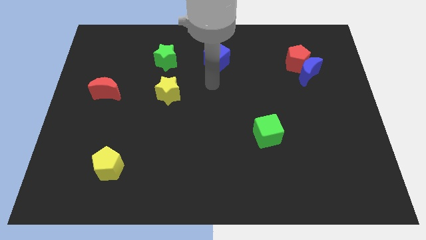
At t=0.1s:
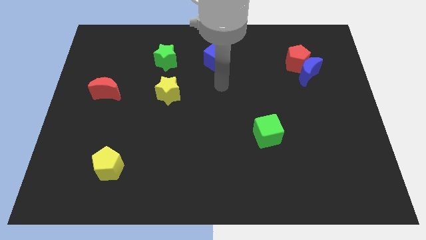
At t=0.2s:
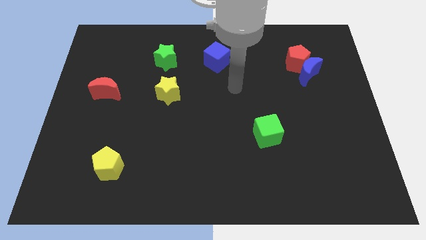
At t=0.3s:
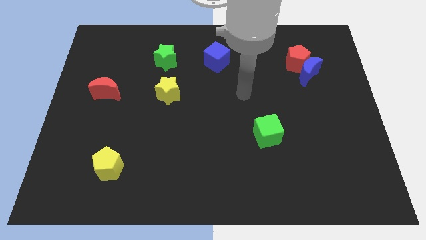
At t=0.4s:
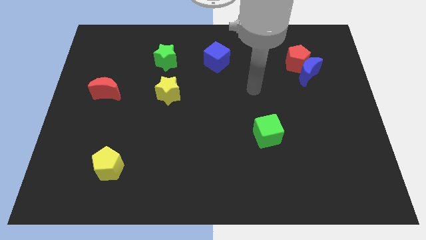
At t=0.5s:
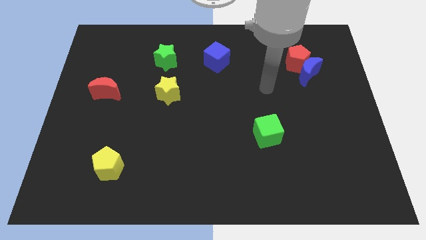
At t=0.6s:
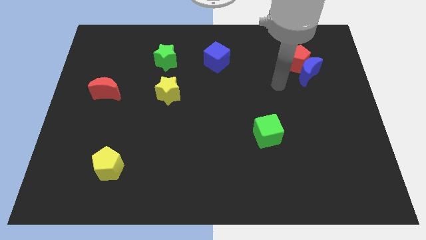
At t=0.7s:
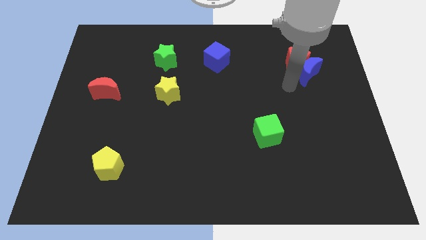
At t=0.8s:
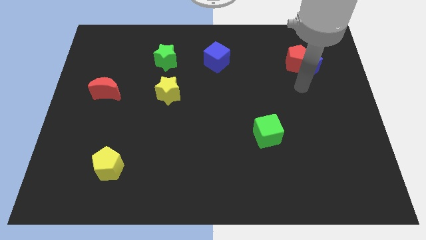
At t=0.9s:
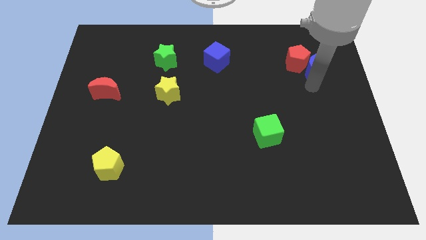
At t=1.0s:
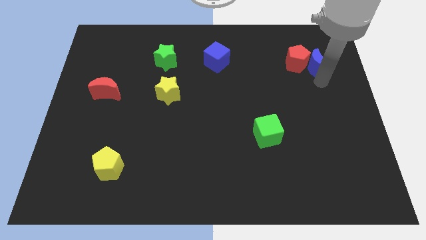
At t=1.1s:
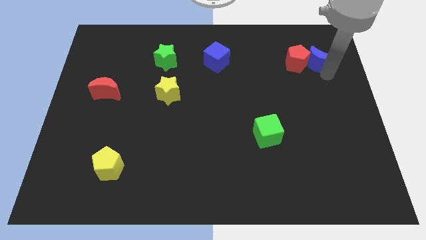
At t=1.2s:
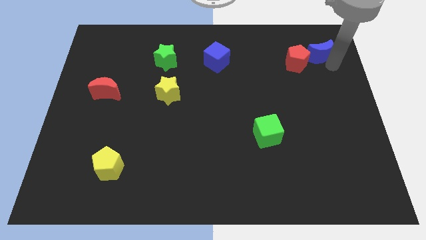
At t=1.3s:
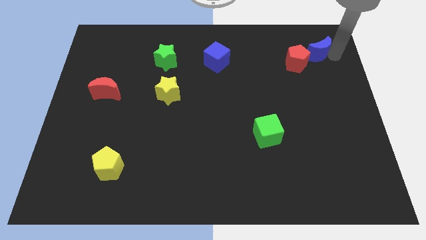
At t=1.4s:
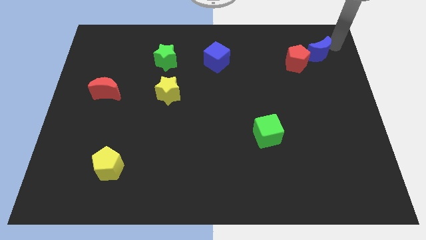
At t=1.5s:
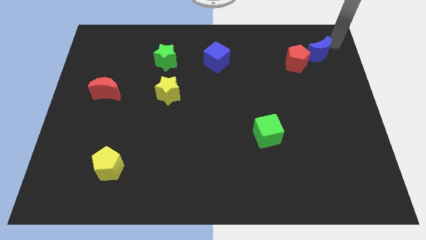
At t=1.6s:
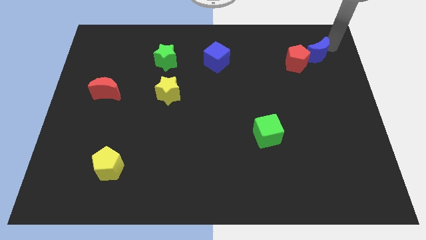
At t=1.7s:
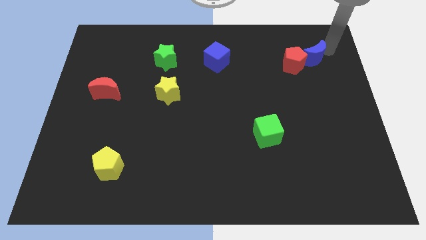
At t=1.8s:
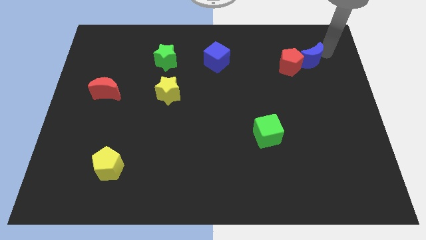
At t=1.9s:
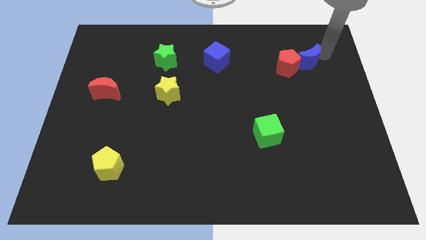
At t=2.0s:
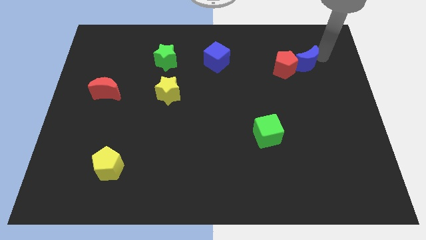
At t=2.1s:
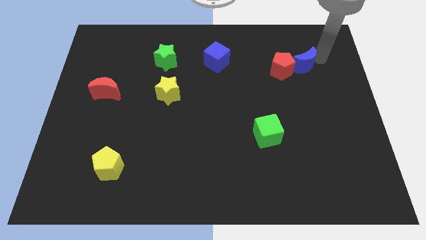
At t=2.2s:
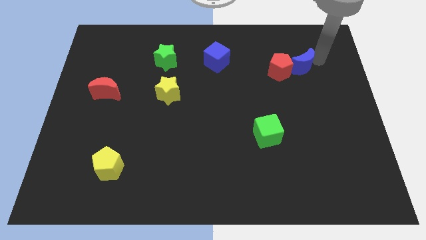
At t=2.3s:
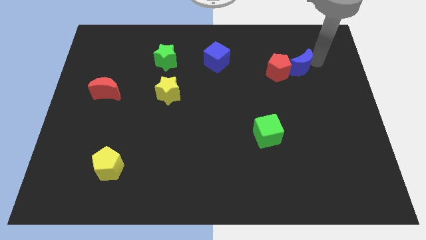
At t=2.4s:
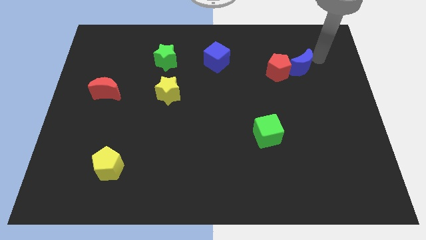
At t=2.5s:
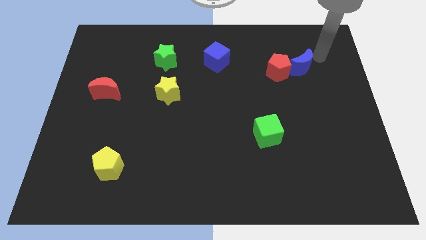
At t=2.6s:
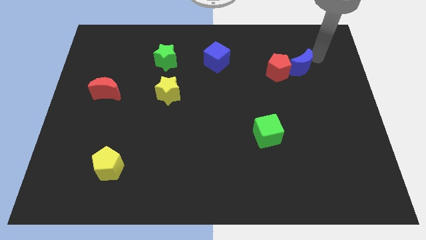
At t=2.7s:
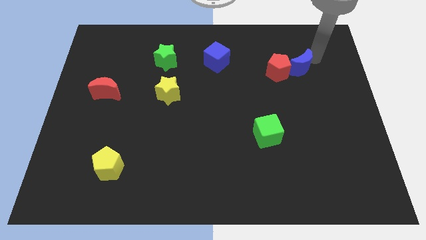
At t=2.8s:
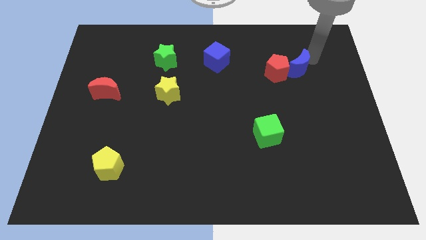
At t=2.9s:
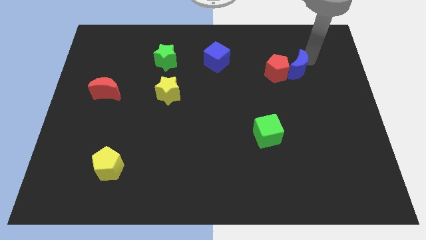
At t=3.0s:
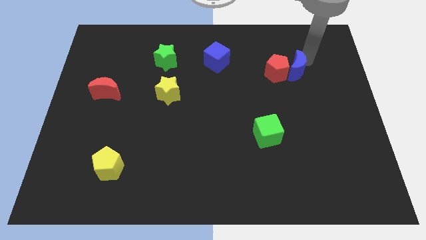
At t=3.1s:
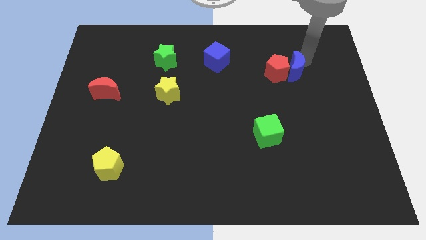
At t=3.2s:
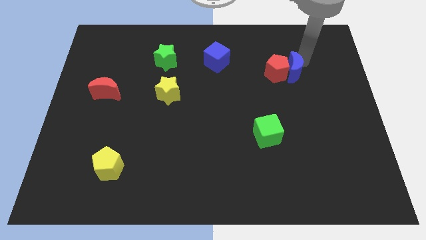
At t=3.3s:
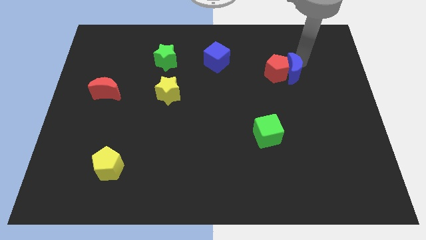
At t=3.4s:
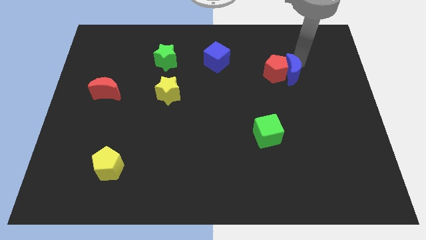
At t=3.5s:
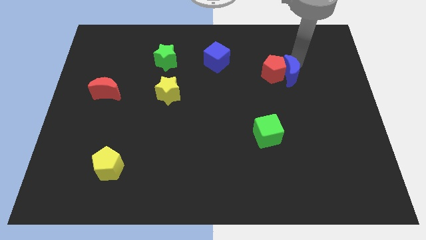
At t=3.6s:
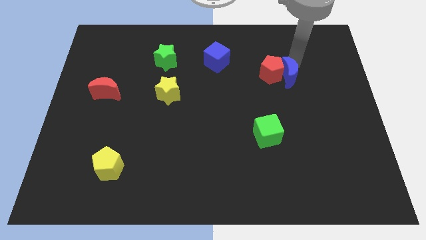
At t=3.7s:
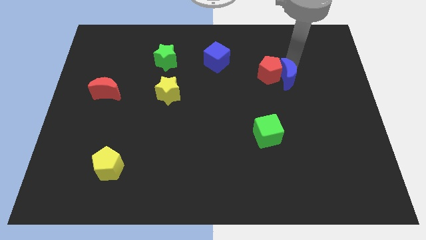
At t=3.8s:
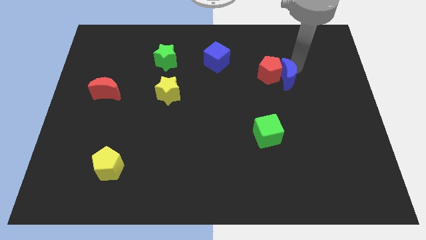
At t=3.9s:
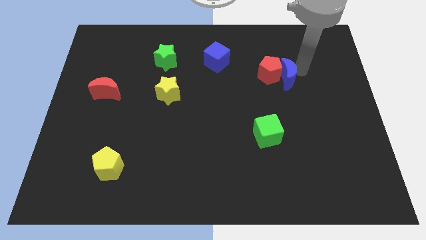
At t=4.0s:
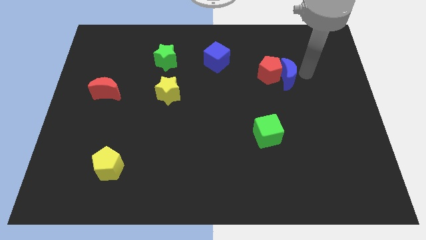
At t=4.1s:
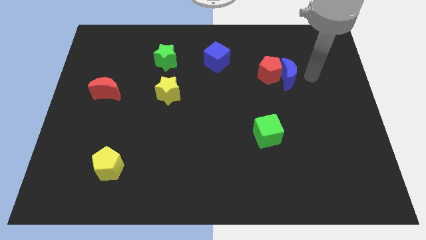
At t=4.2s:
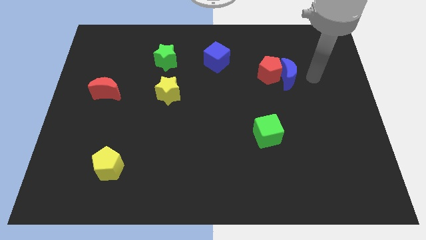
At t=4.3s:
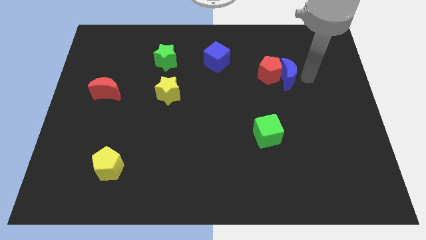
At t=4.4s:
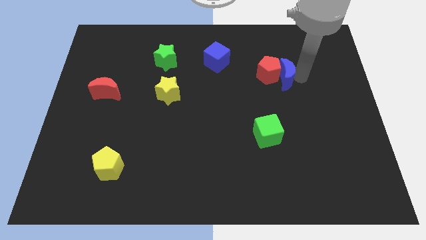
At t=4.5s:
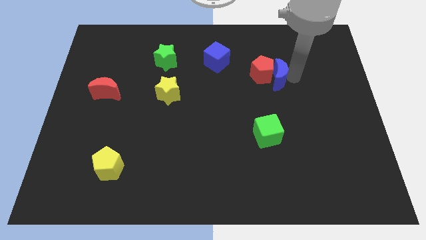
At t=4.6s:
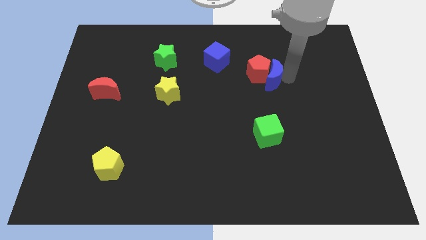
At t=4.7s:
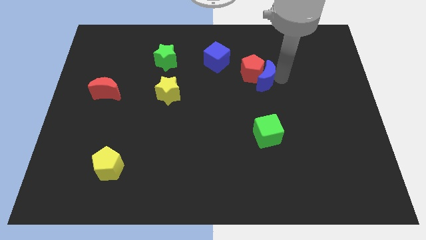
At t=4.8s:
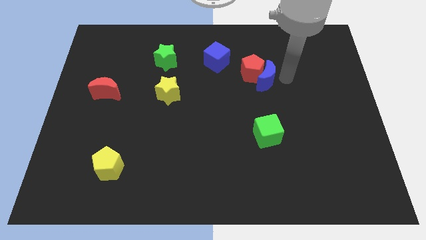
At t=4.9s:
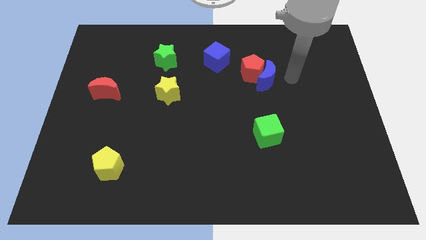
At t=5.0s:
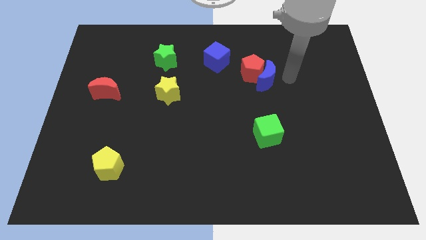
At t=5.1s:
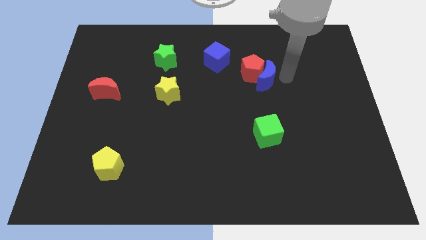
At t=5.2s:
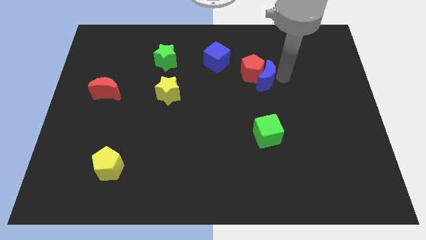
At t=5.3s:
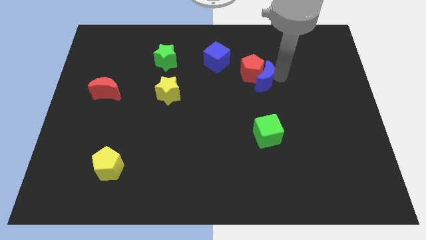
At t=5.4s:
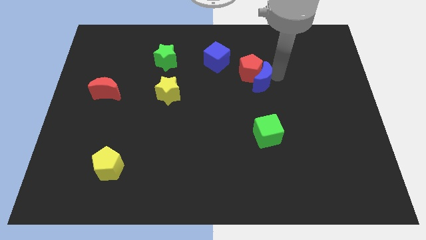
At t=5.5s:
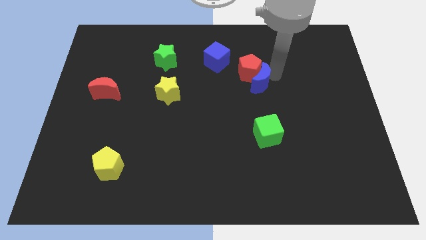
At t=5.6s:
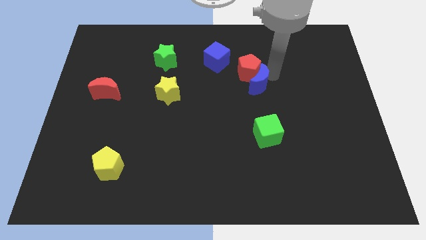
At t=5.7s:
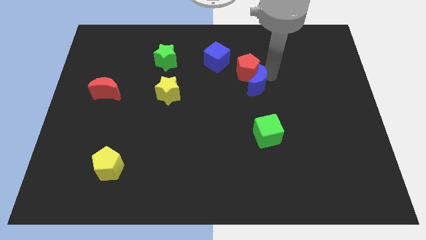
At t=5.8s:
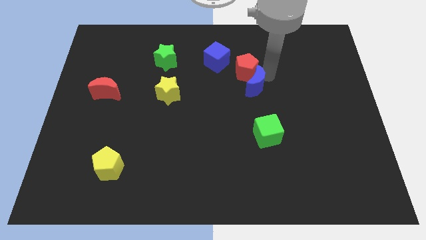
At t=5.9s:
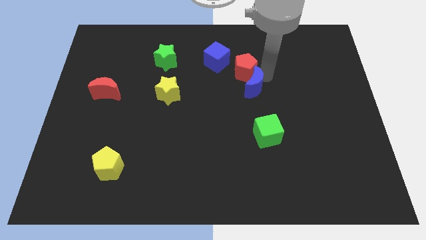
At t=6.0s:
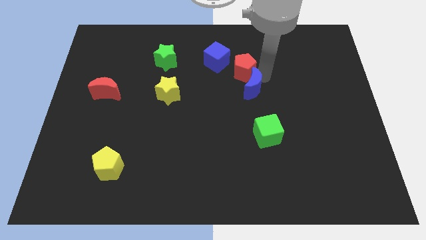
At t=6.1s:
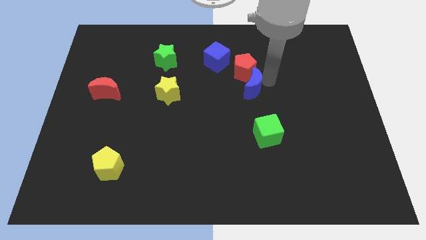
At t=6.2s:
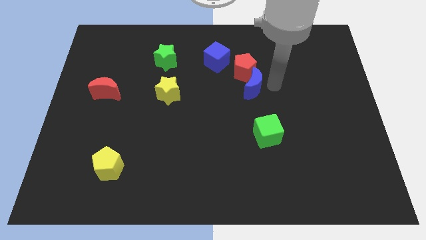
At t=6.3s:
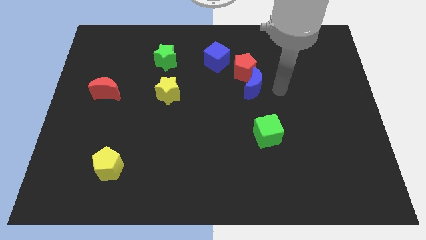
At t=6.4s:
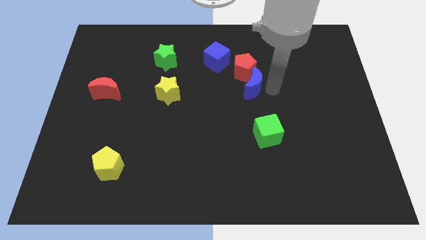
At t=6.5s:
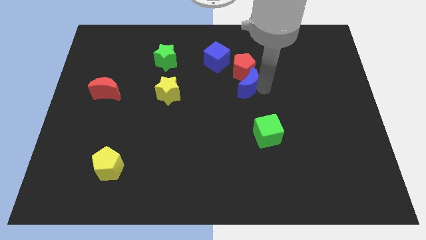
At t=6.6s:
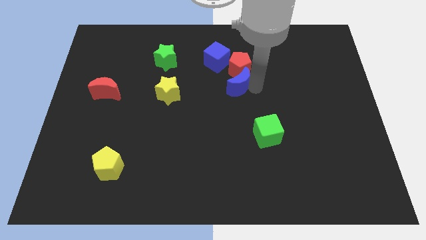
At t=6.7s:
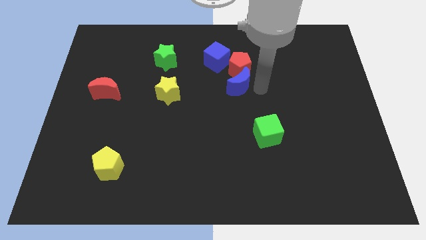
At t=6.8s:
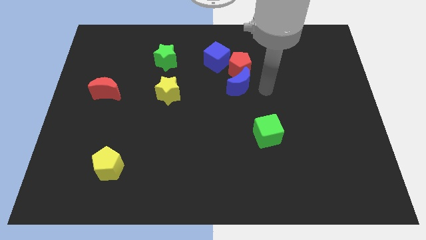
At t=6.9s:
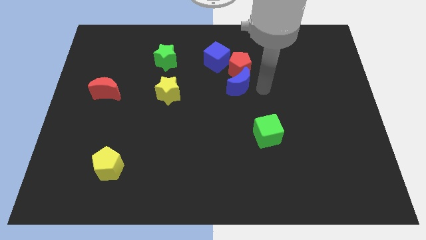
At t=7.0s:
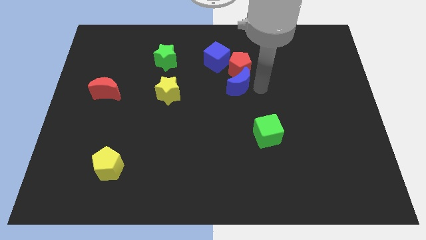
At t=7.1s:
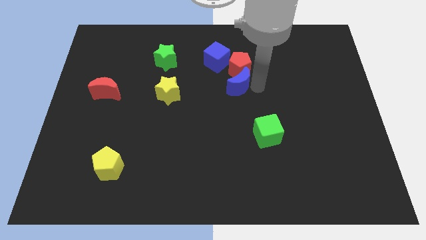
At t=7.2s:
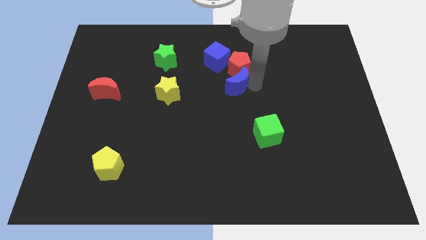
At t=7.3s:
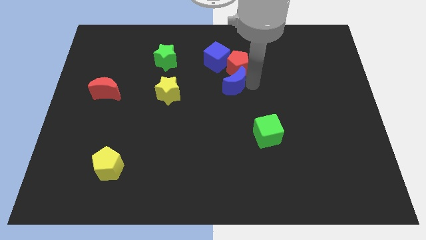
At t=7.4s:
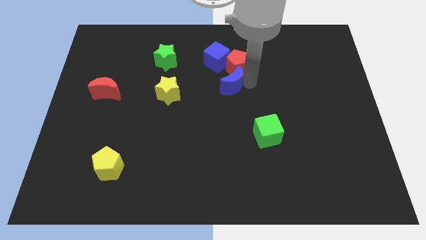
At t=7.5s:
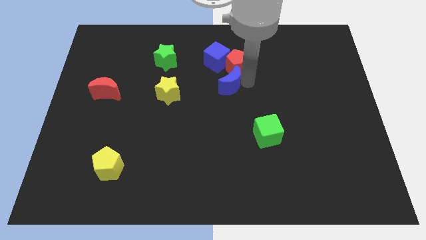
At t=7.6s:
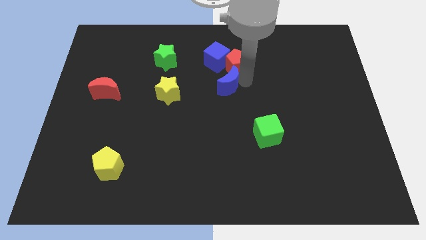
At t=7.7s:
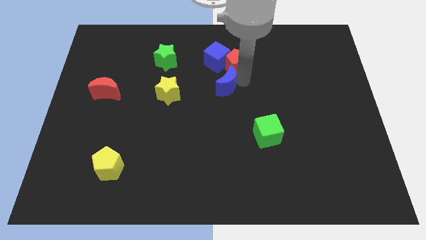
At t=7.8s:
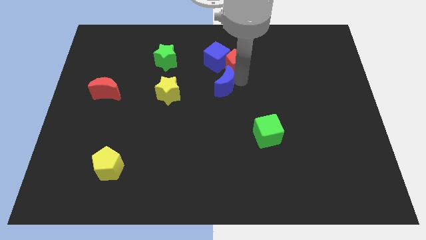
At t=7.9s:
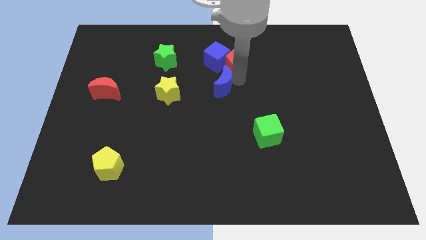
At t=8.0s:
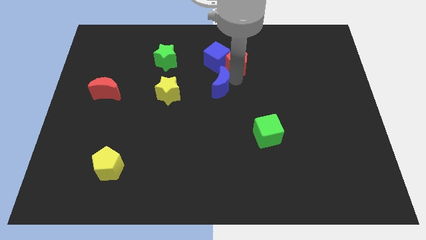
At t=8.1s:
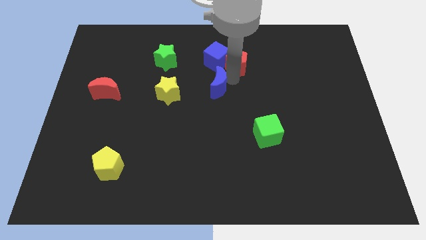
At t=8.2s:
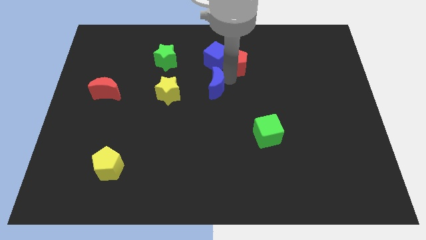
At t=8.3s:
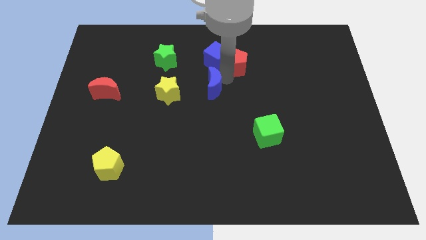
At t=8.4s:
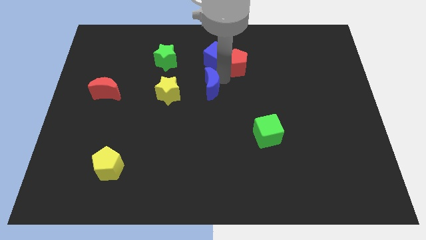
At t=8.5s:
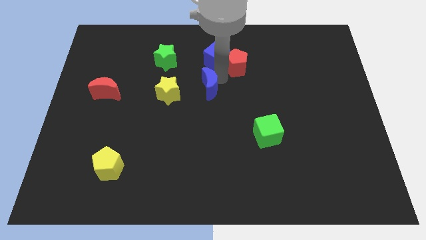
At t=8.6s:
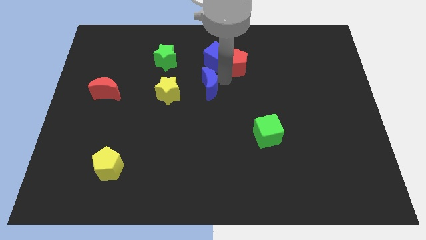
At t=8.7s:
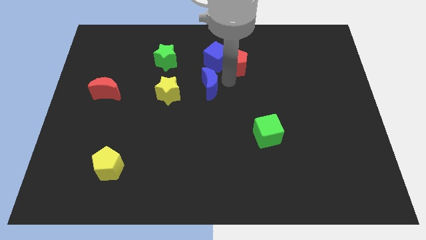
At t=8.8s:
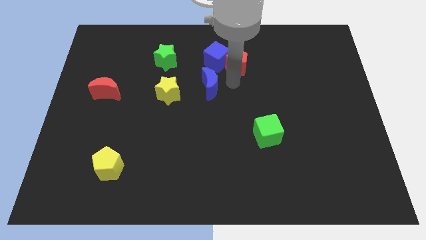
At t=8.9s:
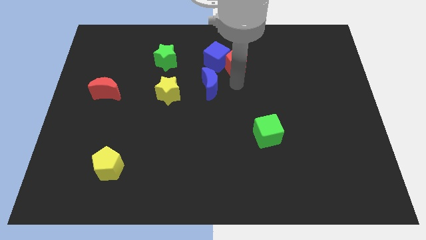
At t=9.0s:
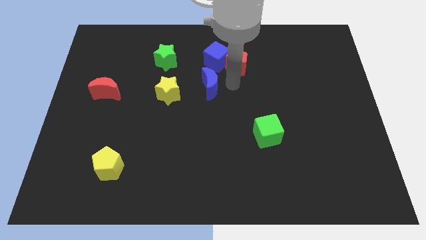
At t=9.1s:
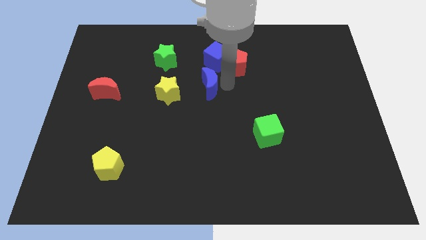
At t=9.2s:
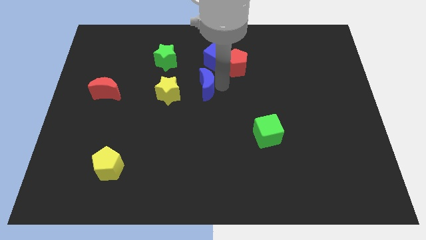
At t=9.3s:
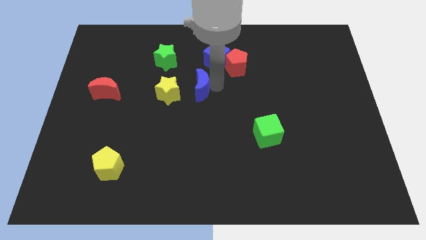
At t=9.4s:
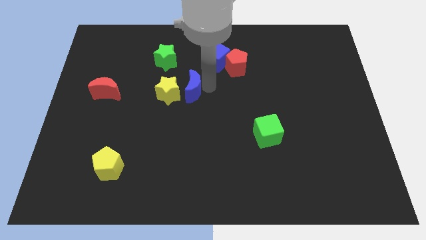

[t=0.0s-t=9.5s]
put the blue moon to the yellow star
